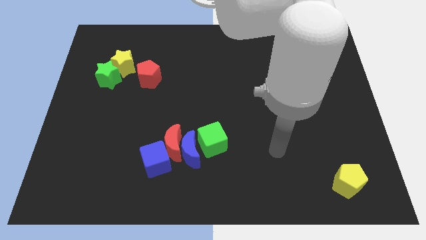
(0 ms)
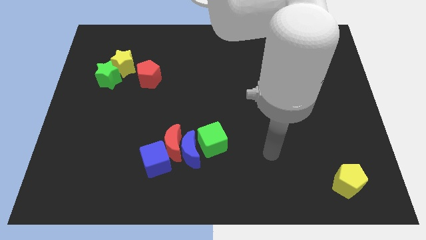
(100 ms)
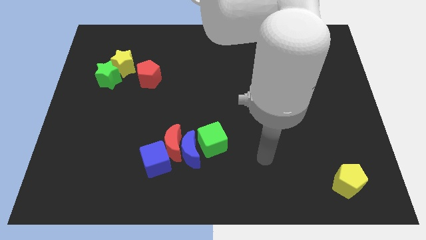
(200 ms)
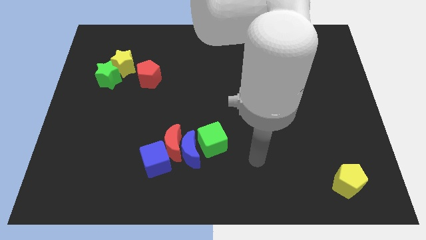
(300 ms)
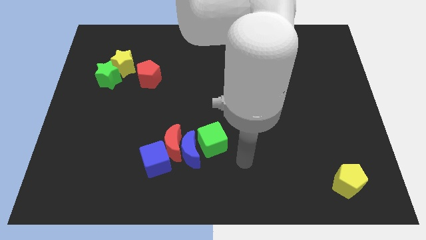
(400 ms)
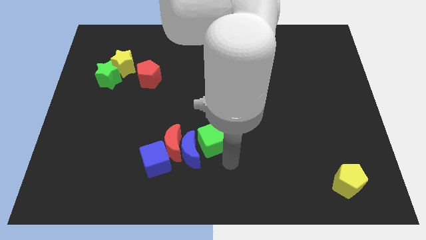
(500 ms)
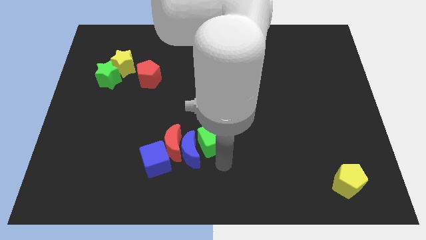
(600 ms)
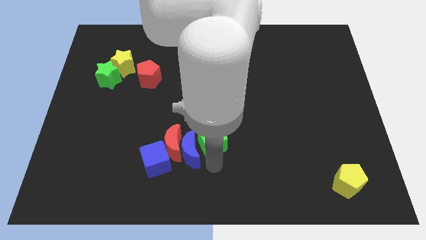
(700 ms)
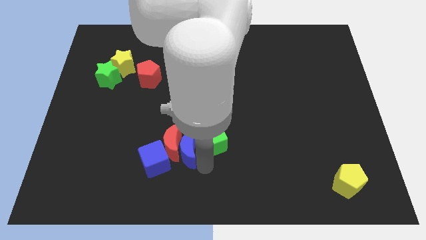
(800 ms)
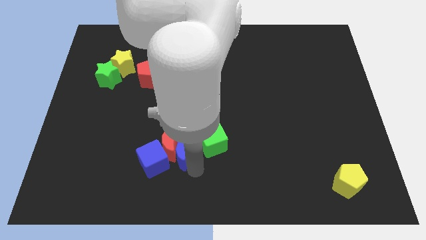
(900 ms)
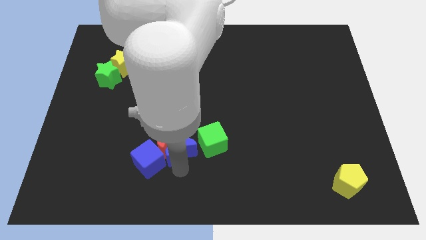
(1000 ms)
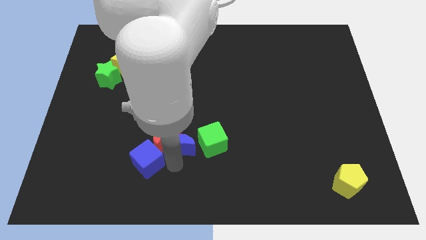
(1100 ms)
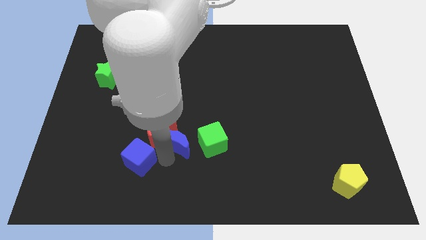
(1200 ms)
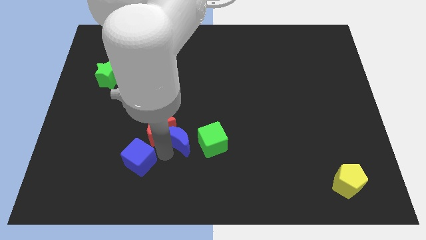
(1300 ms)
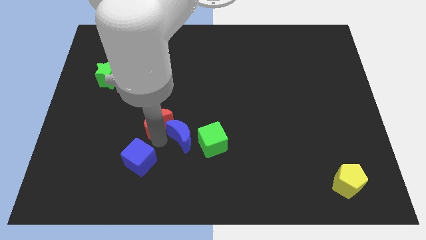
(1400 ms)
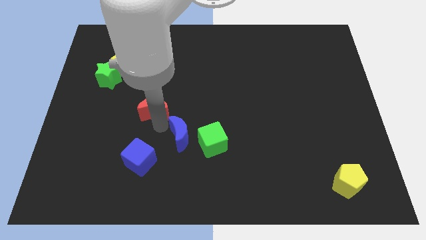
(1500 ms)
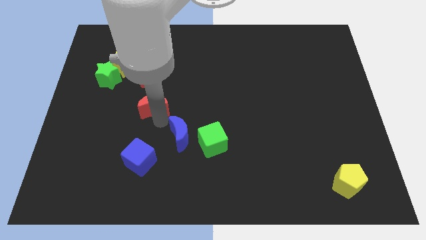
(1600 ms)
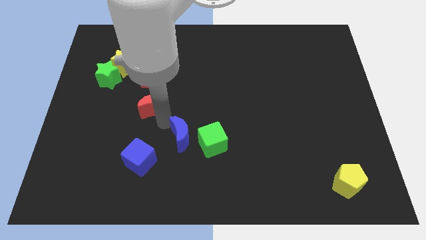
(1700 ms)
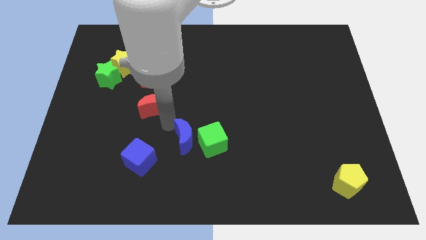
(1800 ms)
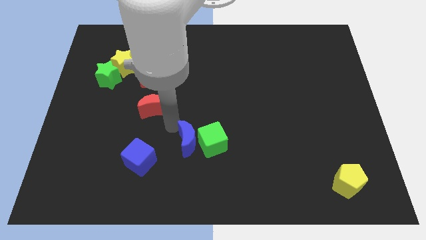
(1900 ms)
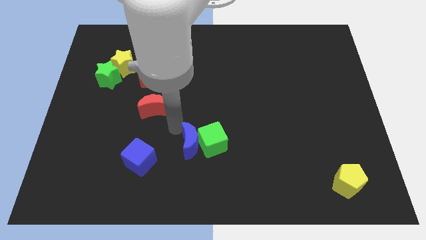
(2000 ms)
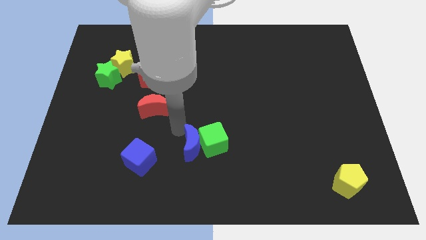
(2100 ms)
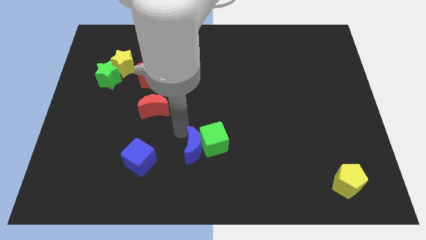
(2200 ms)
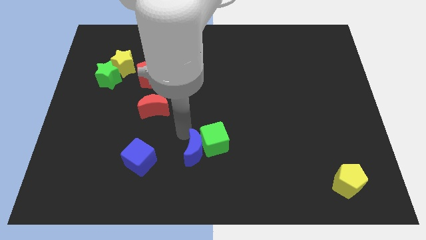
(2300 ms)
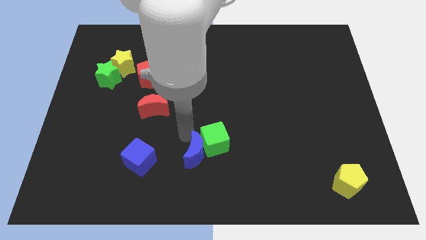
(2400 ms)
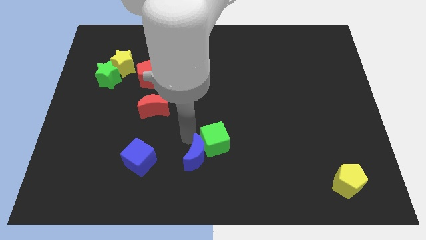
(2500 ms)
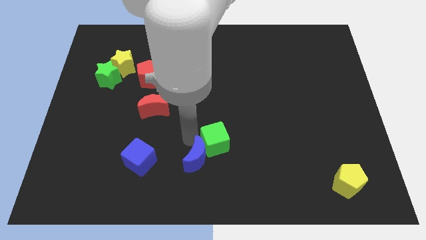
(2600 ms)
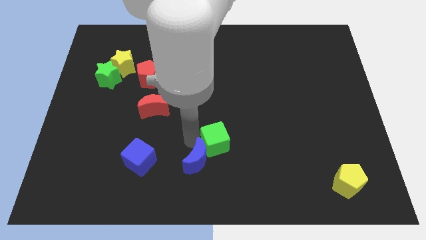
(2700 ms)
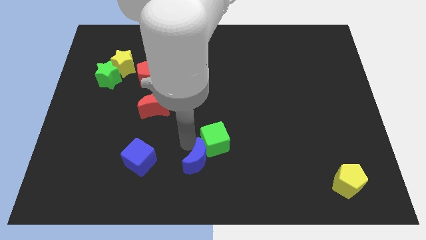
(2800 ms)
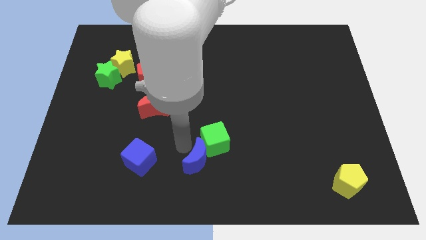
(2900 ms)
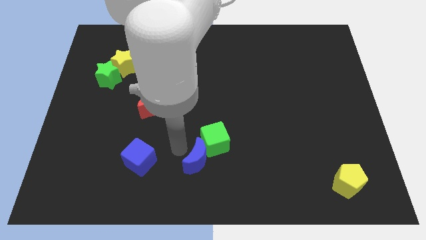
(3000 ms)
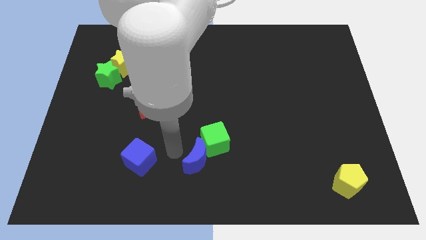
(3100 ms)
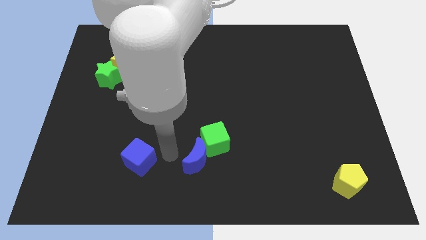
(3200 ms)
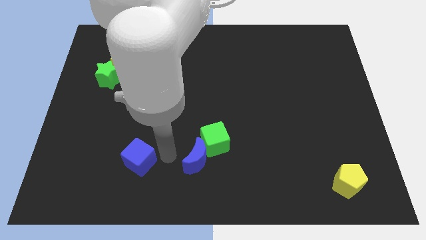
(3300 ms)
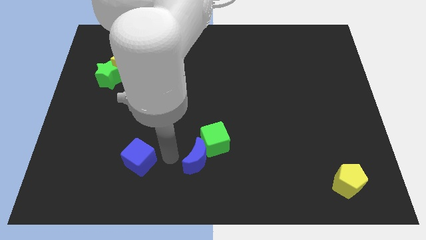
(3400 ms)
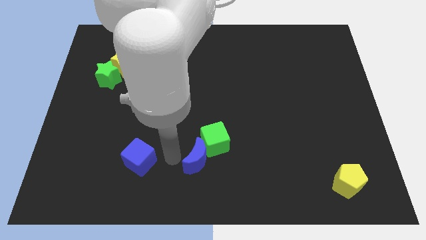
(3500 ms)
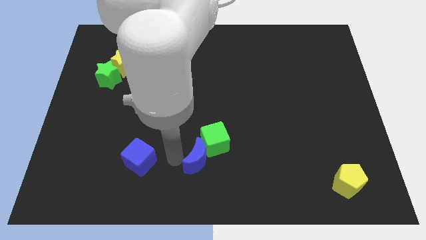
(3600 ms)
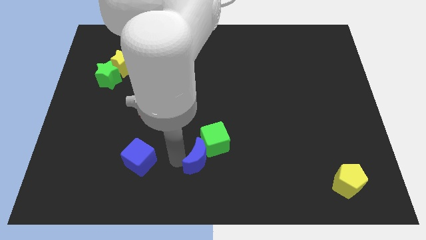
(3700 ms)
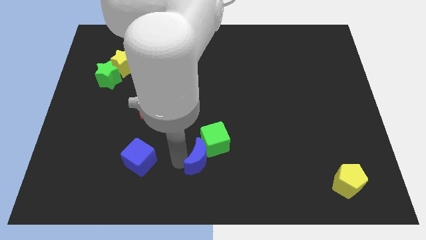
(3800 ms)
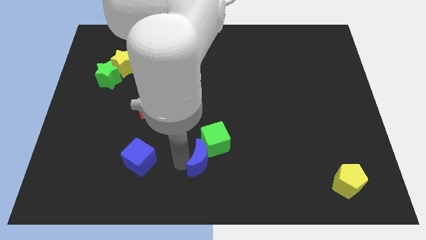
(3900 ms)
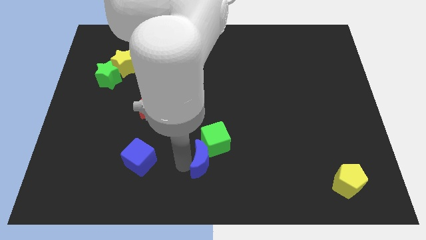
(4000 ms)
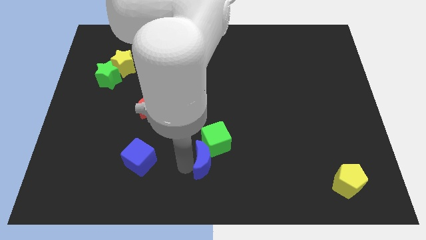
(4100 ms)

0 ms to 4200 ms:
pull the blue moon apart from the group of blocks

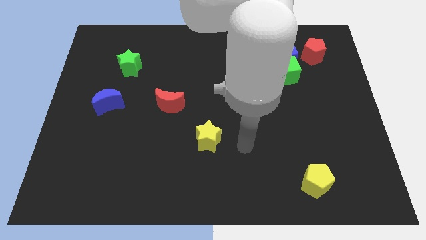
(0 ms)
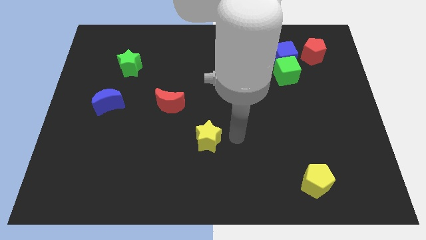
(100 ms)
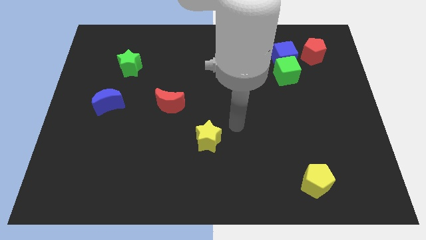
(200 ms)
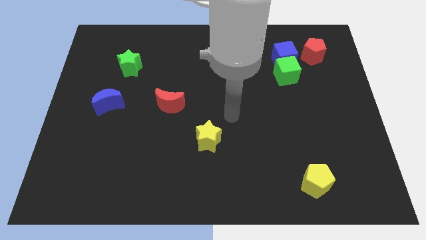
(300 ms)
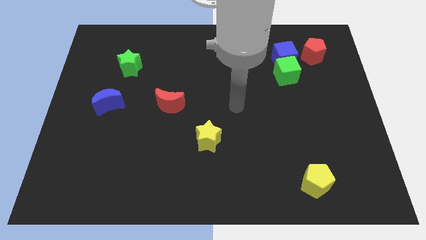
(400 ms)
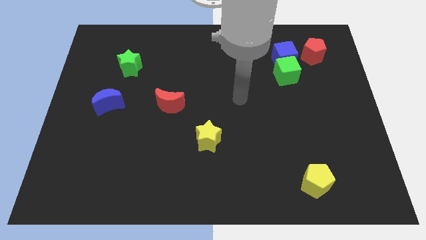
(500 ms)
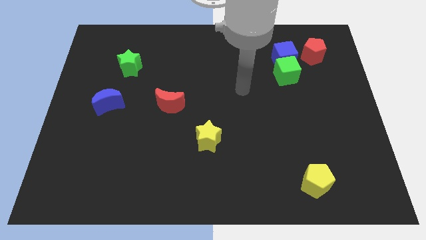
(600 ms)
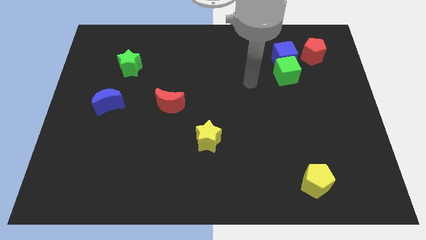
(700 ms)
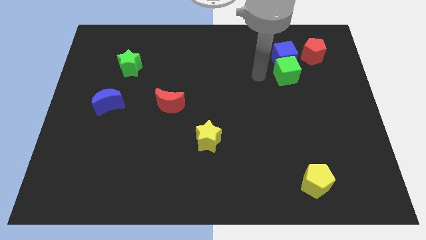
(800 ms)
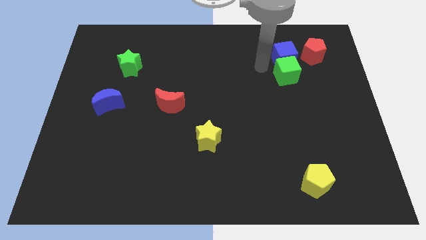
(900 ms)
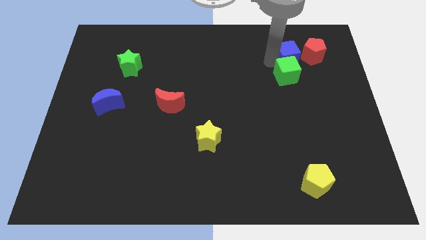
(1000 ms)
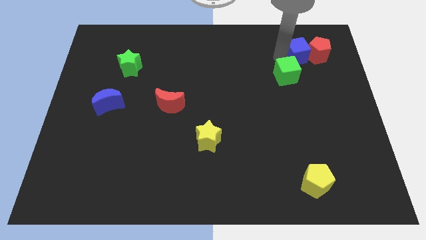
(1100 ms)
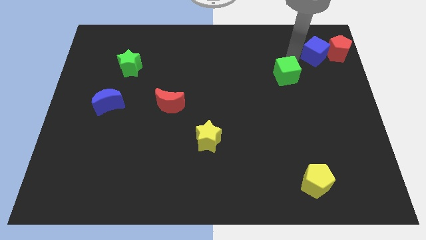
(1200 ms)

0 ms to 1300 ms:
separate the green cube from the blue cube

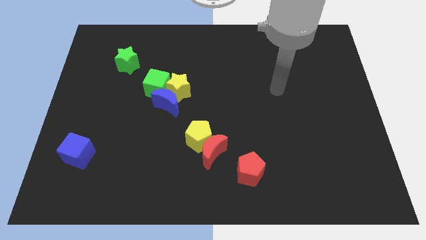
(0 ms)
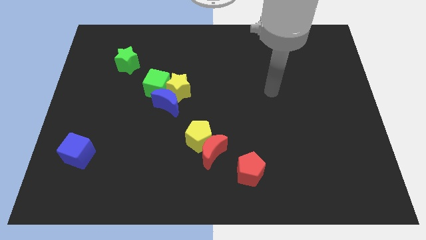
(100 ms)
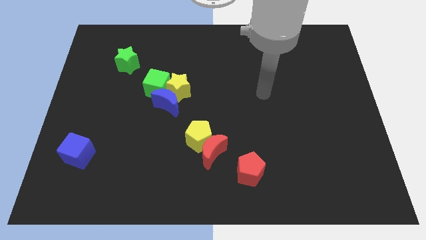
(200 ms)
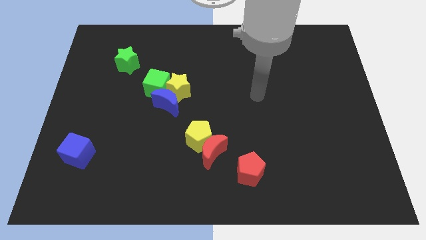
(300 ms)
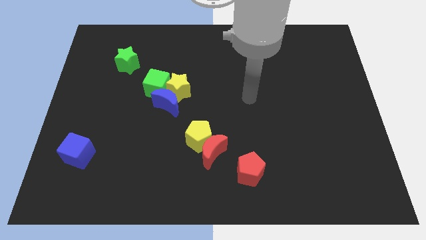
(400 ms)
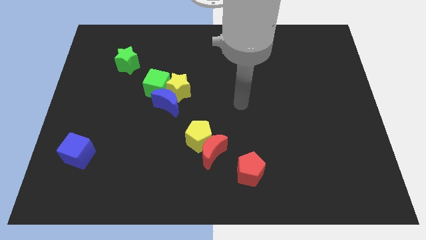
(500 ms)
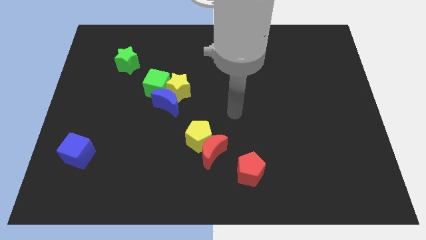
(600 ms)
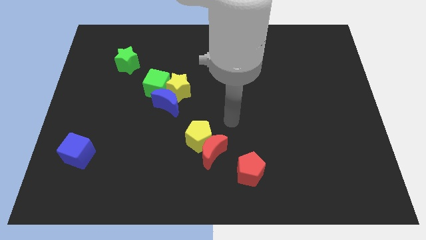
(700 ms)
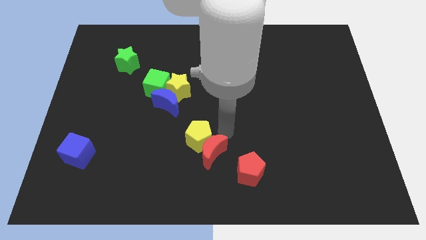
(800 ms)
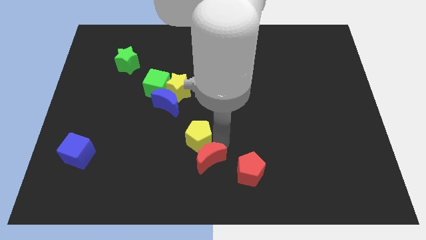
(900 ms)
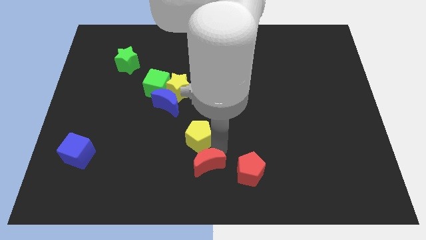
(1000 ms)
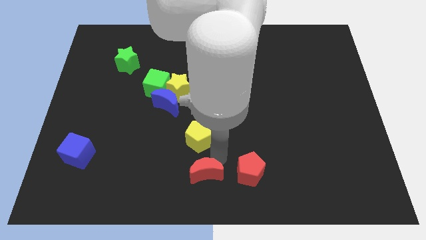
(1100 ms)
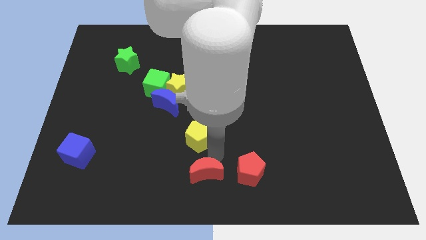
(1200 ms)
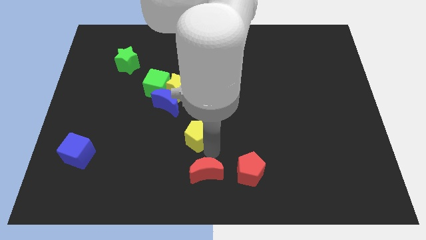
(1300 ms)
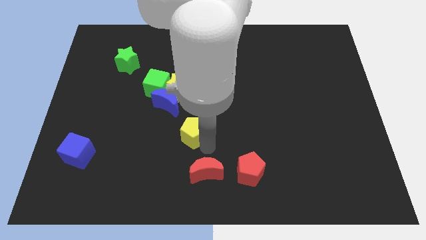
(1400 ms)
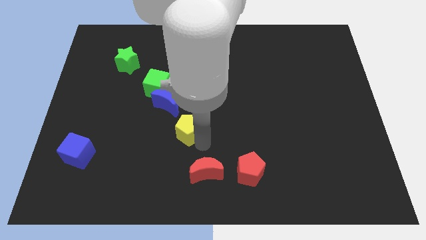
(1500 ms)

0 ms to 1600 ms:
pull the yellow pentagon apart from the red moon

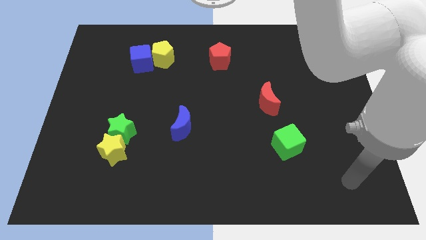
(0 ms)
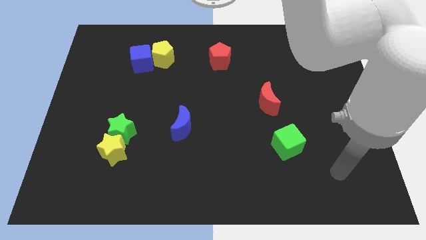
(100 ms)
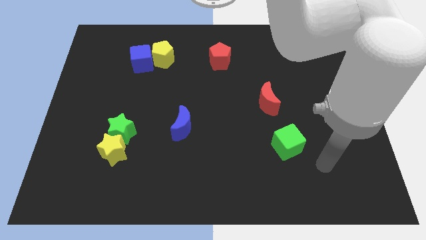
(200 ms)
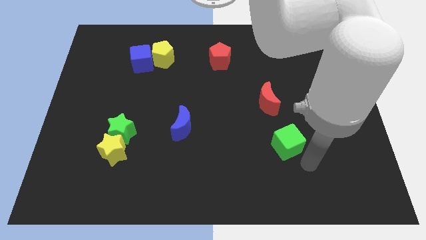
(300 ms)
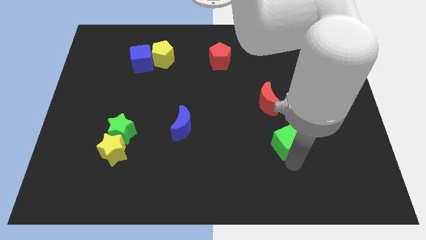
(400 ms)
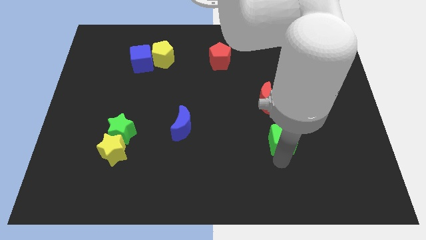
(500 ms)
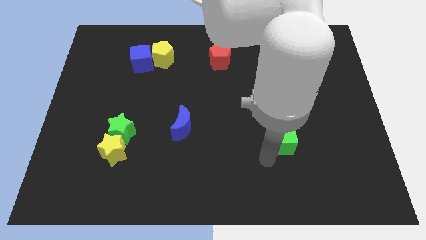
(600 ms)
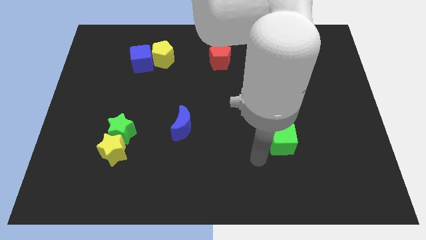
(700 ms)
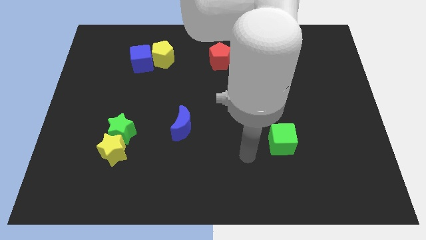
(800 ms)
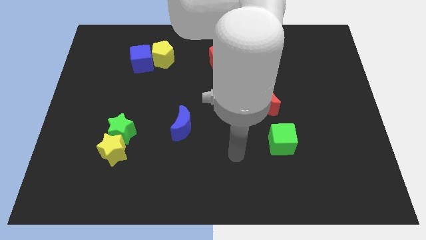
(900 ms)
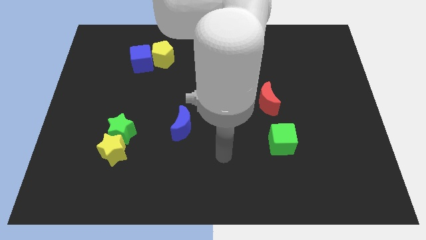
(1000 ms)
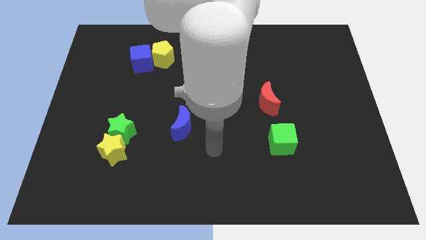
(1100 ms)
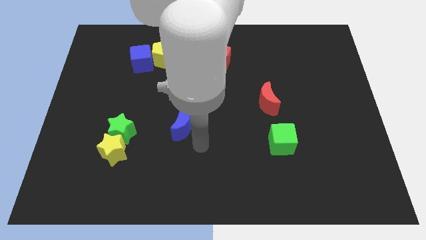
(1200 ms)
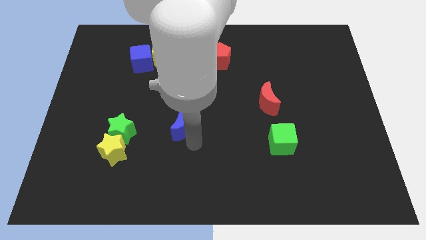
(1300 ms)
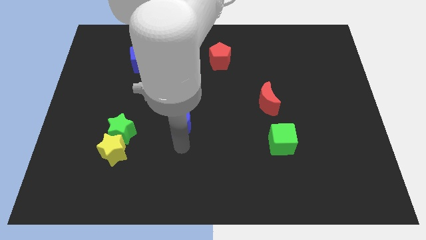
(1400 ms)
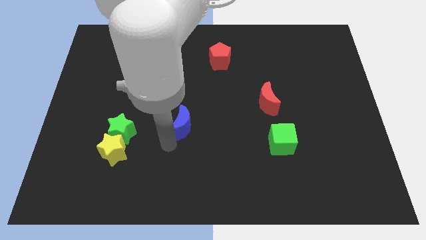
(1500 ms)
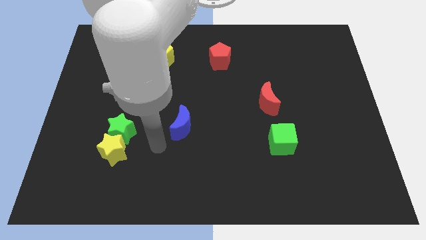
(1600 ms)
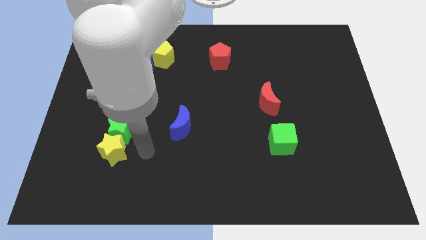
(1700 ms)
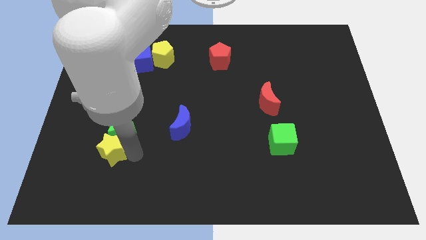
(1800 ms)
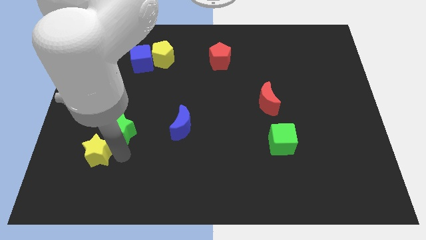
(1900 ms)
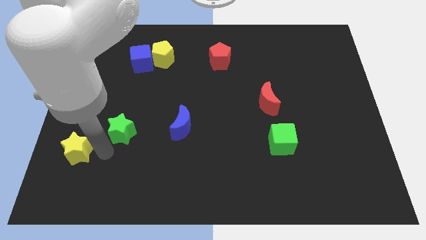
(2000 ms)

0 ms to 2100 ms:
separate the green star from the yellow star

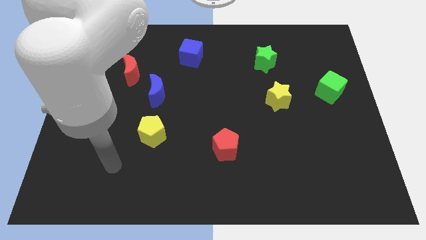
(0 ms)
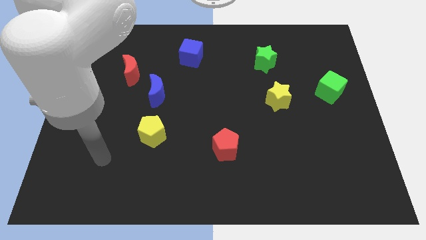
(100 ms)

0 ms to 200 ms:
pull the red moon apart from the blue moon
